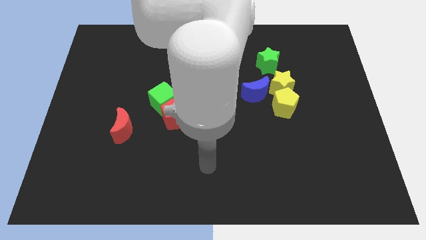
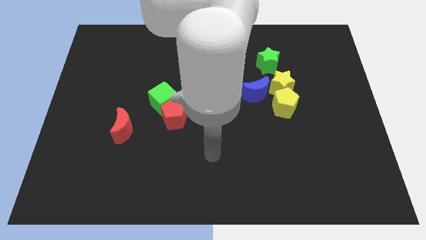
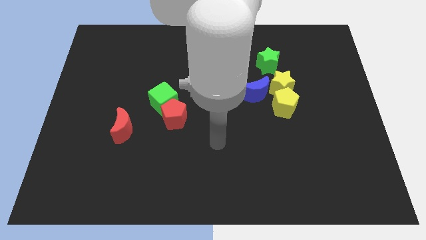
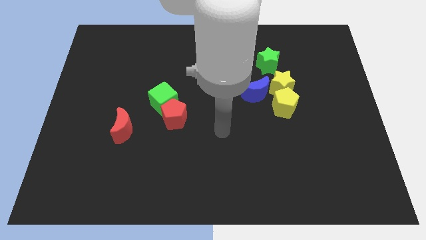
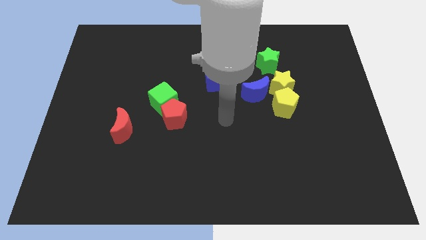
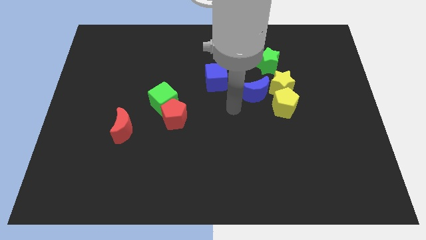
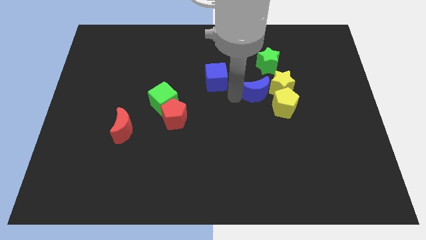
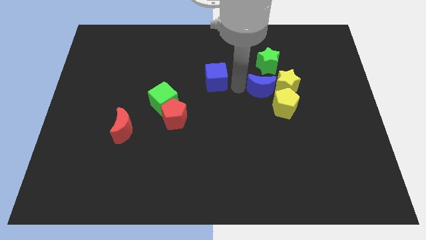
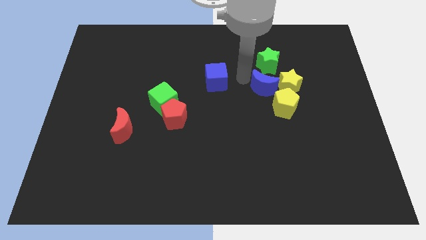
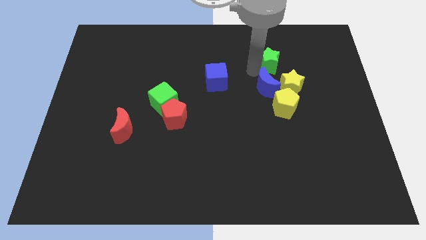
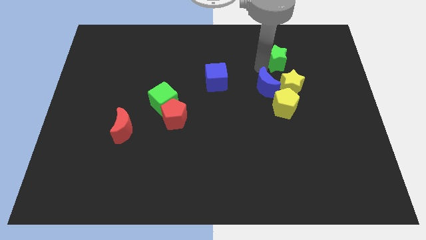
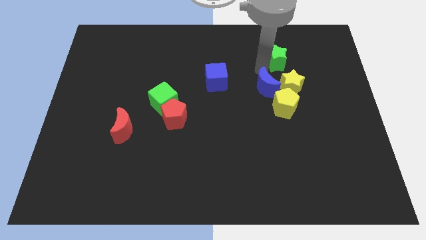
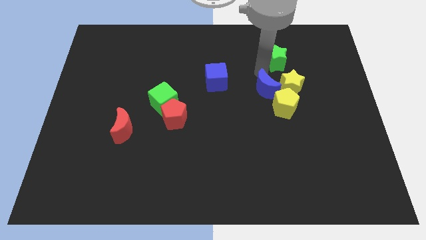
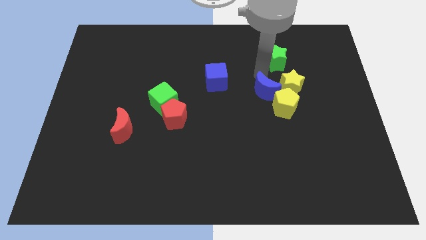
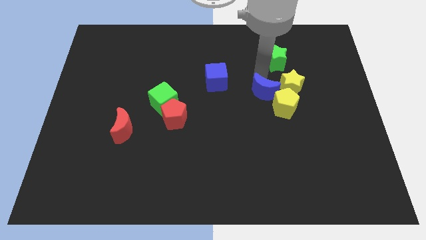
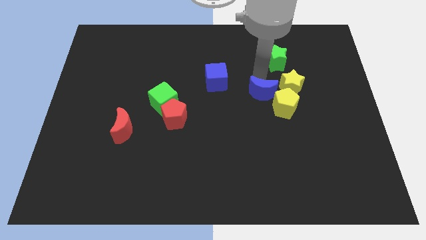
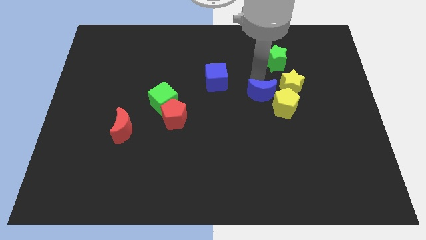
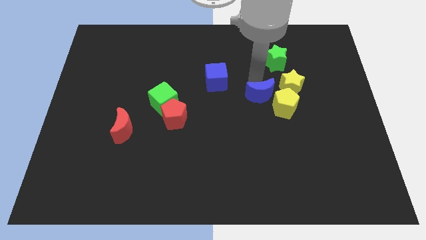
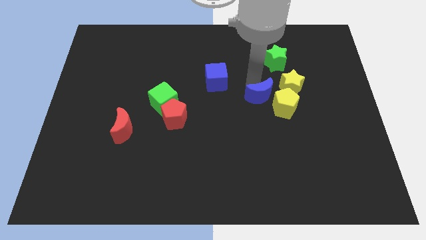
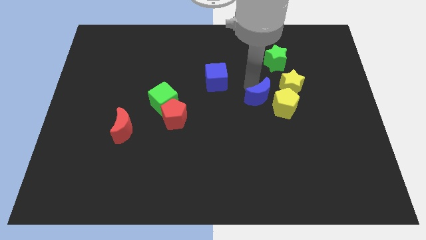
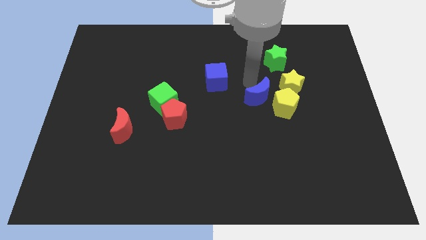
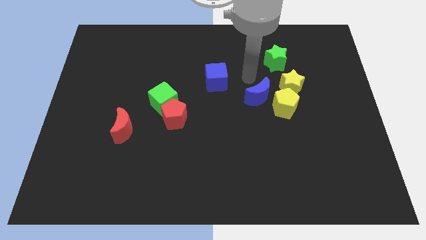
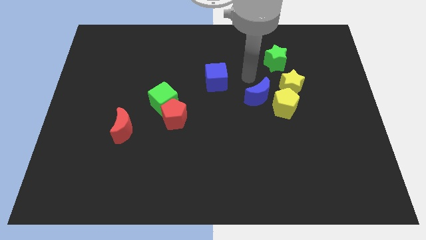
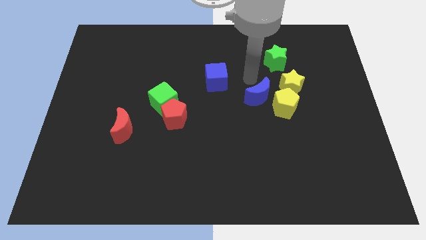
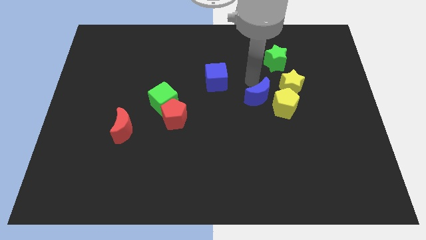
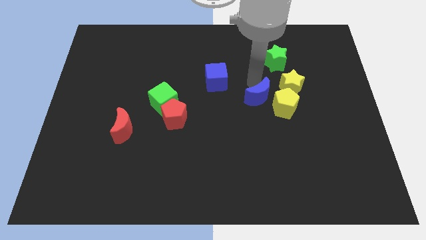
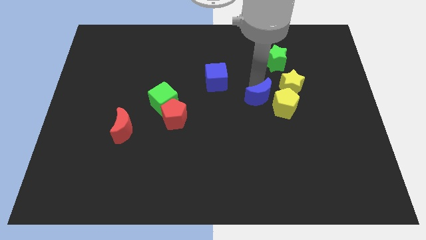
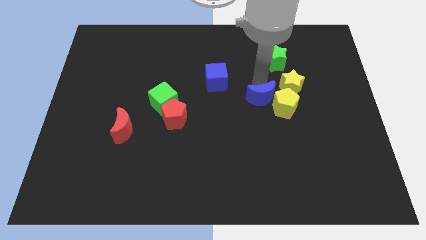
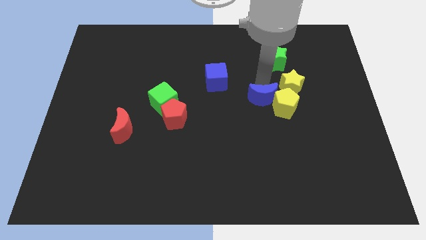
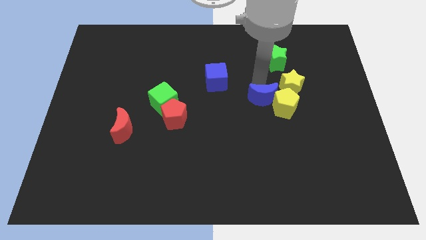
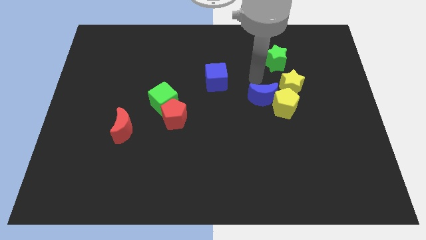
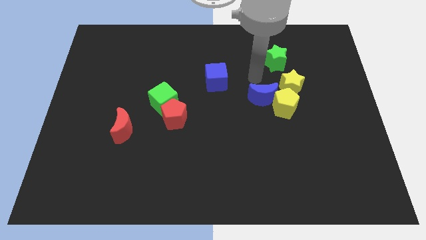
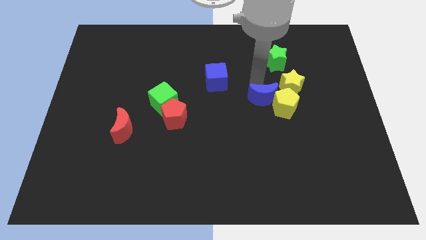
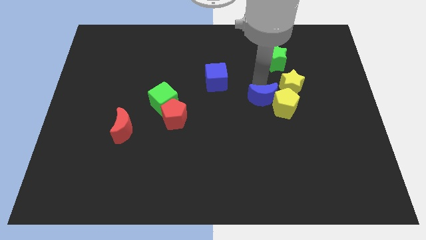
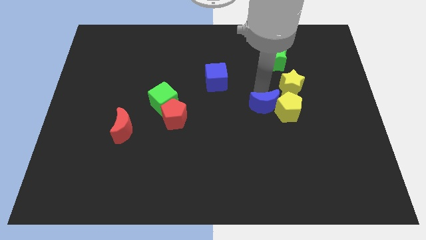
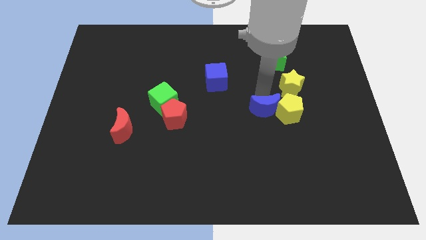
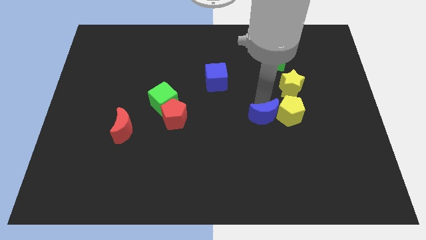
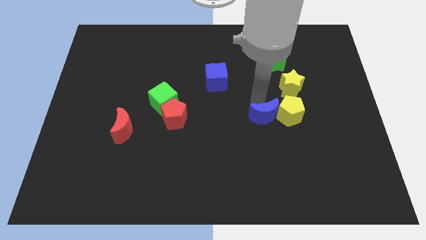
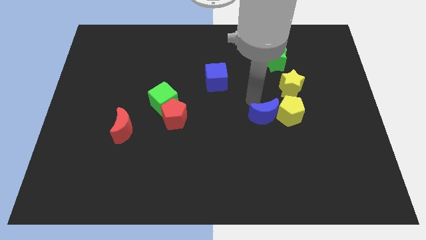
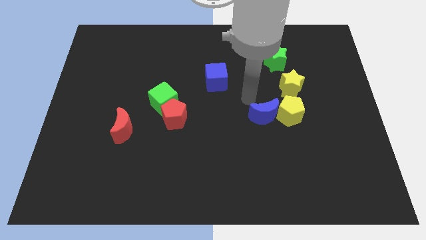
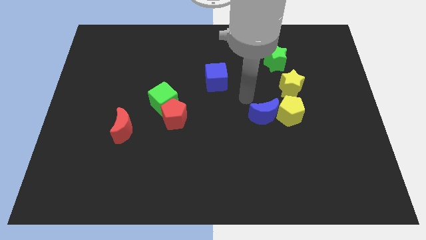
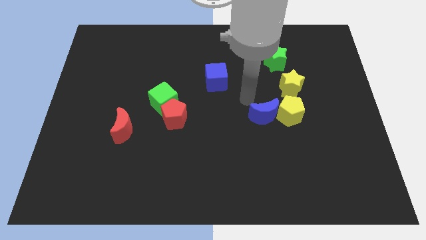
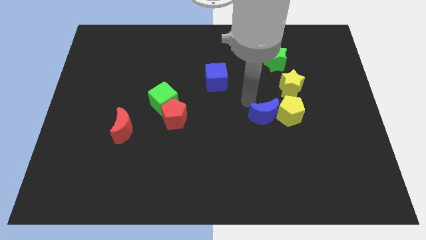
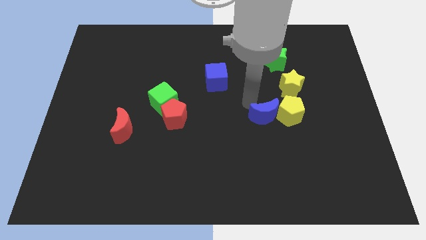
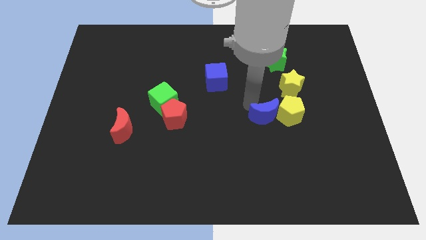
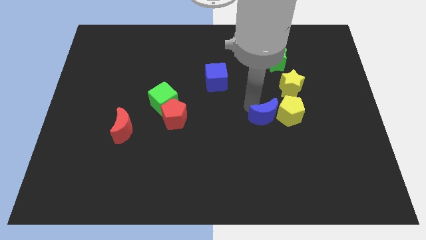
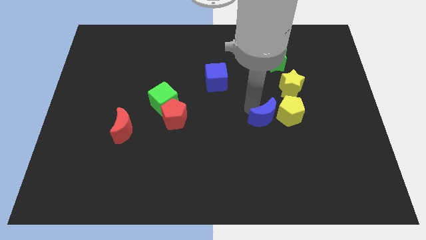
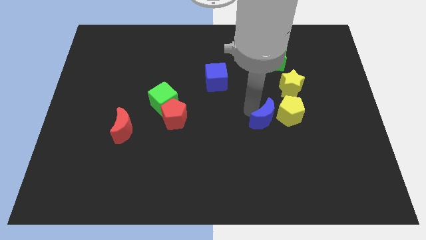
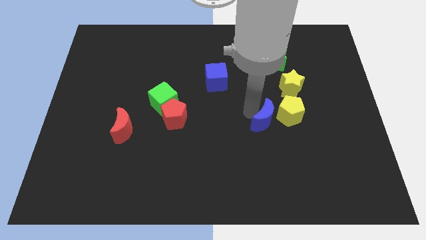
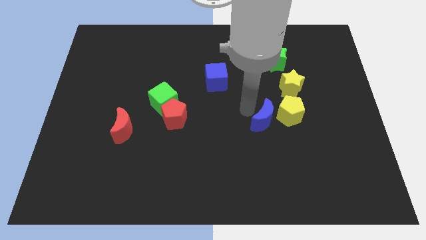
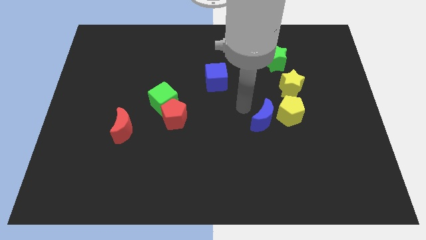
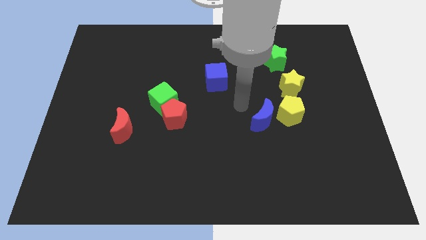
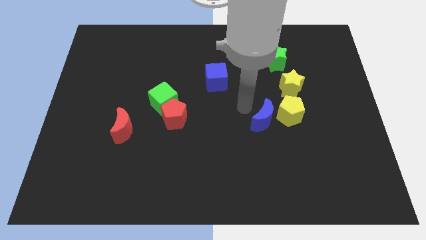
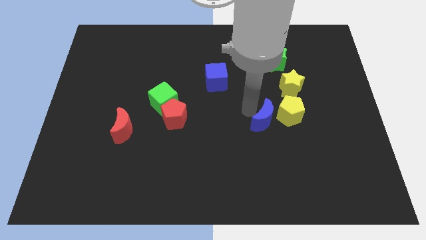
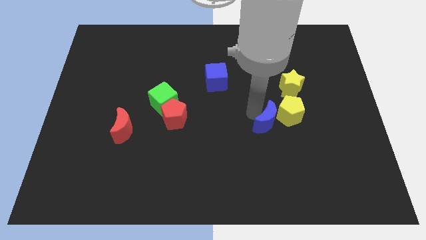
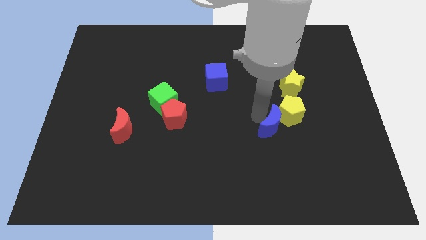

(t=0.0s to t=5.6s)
move the blue moon to the bottom side of the yellow pentagon

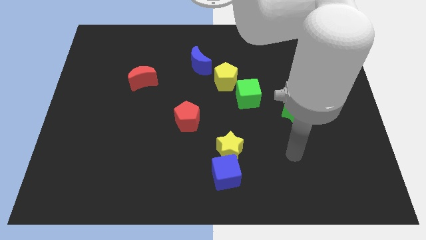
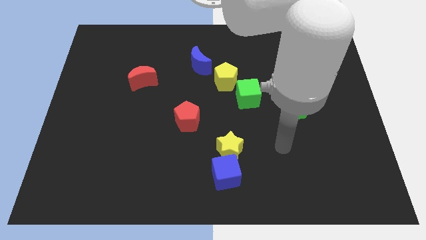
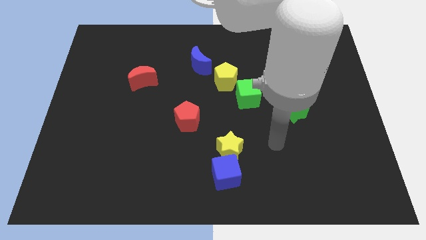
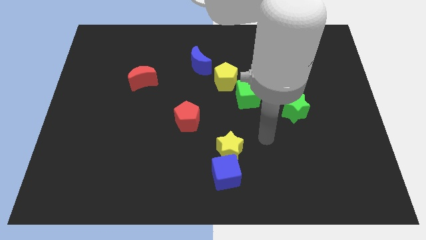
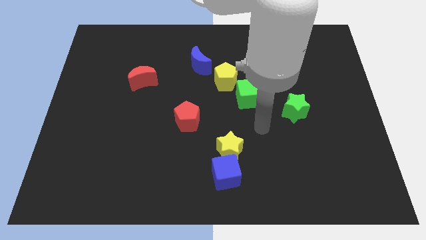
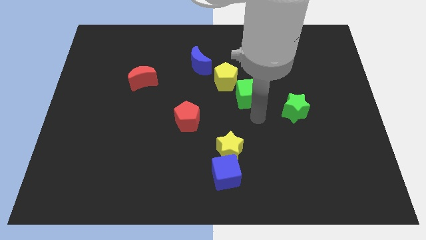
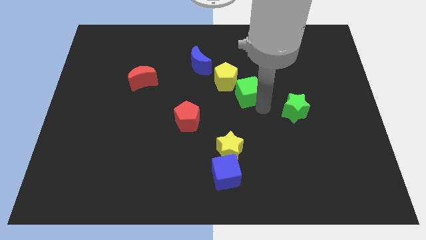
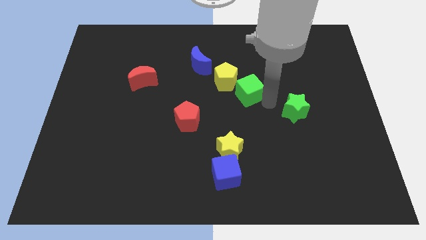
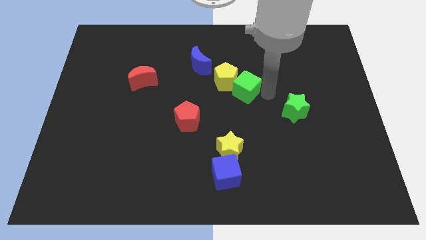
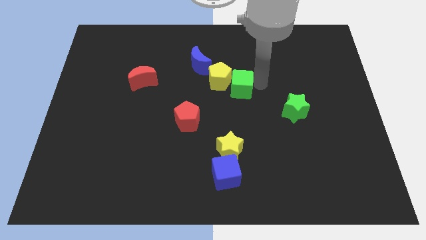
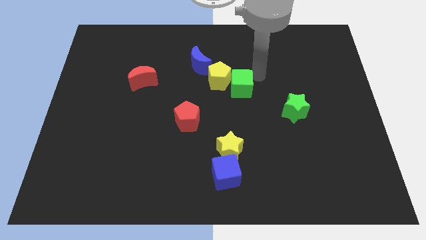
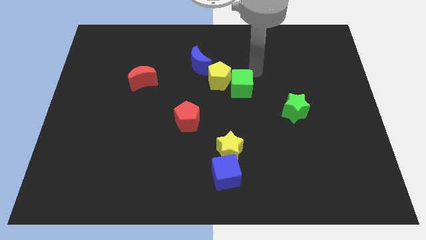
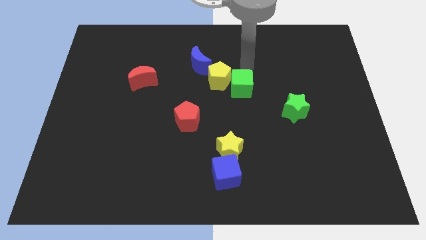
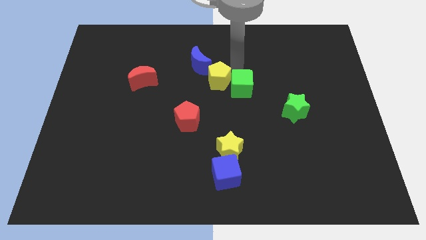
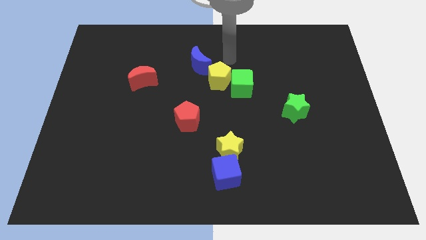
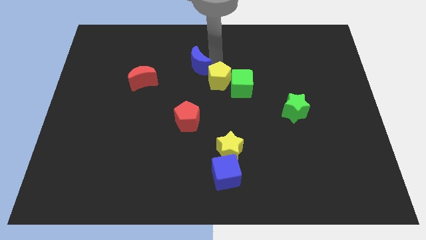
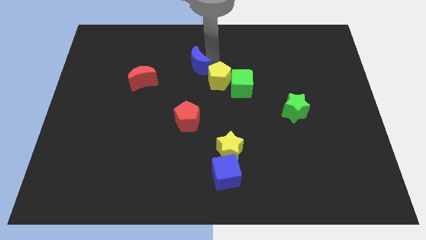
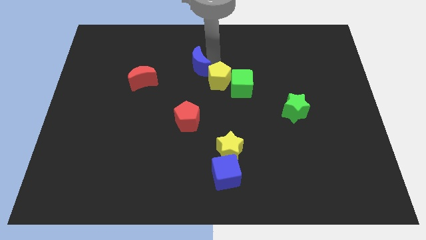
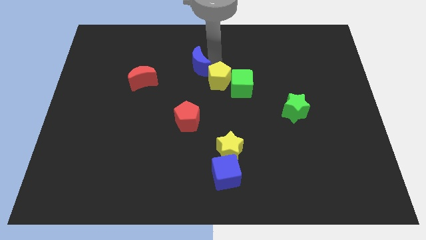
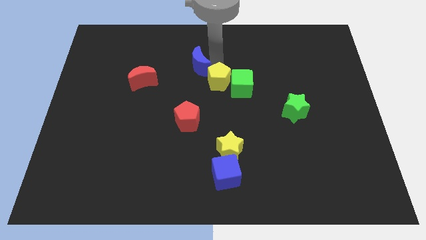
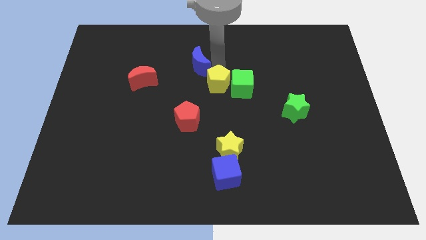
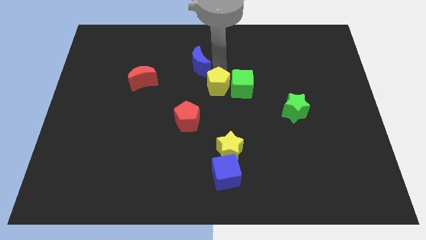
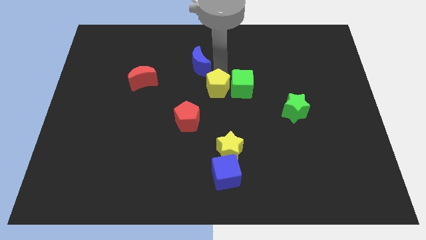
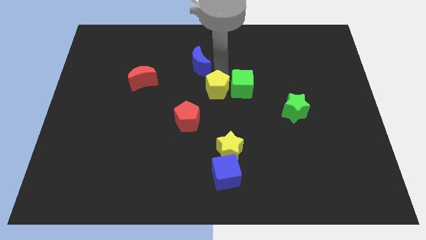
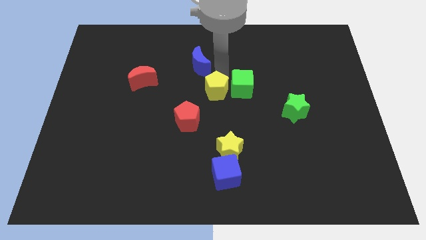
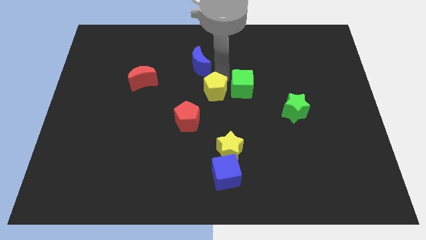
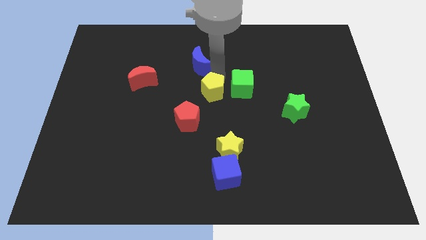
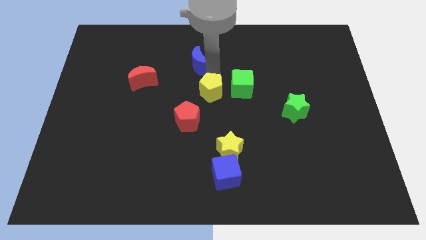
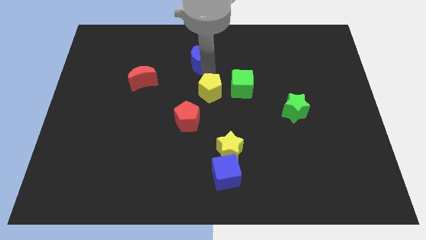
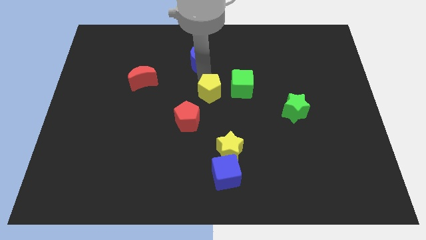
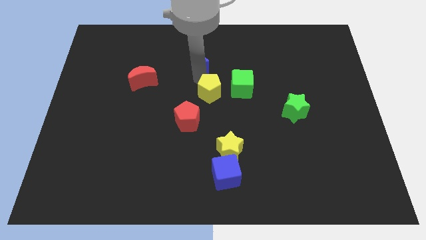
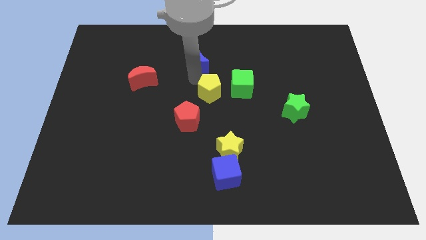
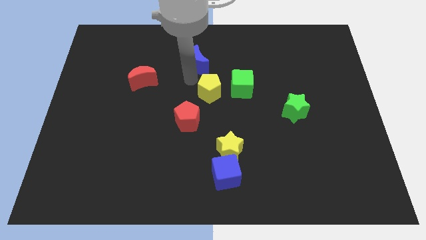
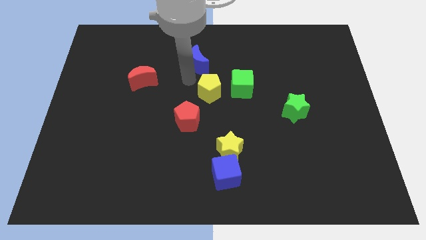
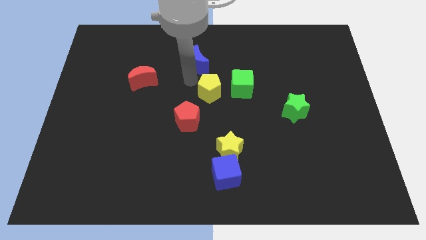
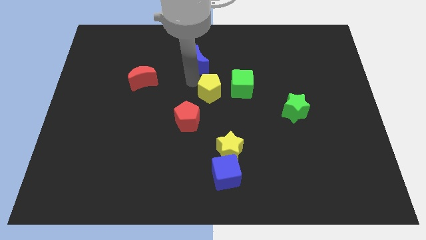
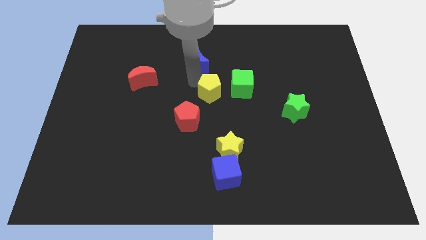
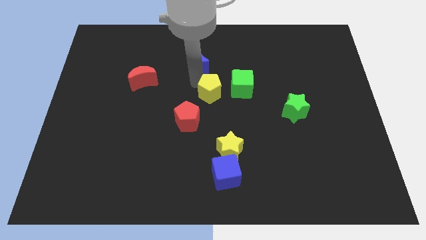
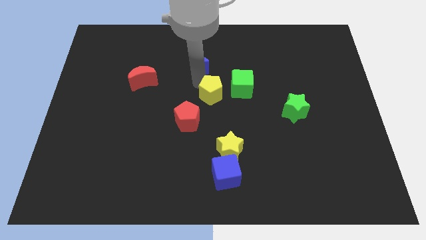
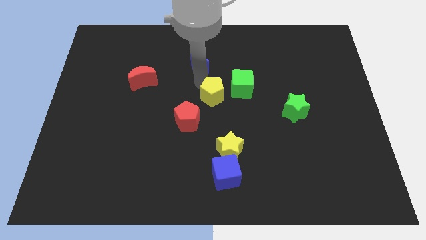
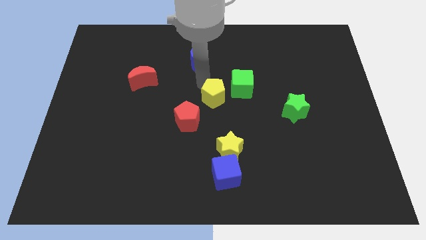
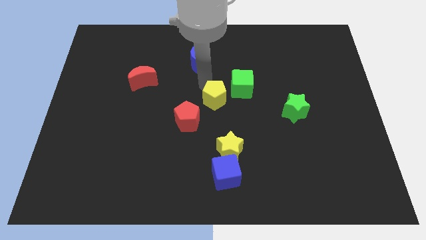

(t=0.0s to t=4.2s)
slide the yellow pentagon above the yellow star
